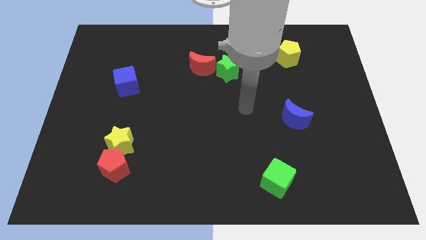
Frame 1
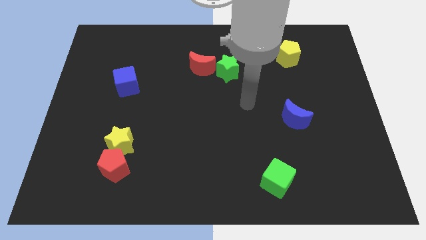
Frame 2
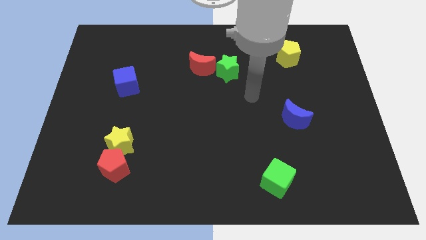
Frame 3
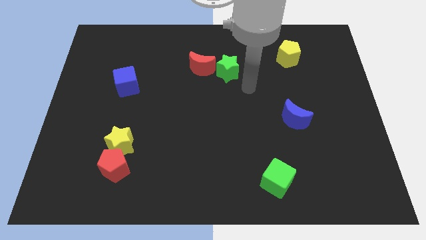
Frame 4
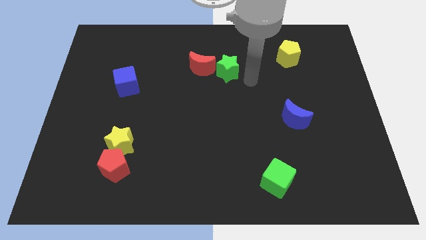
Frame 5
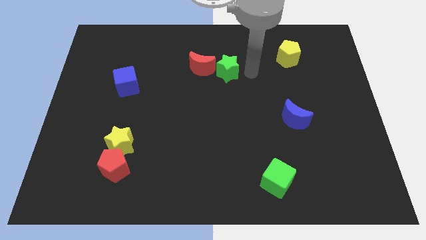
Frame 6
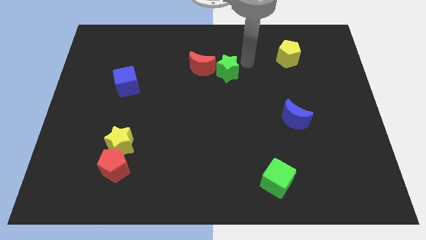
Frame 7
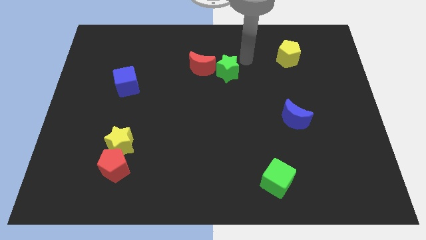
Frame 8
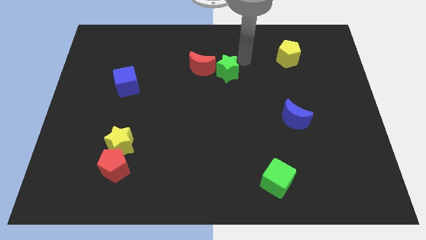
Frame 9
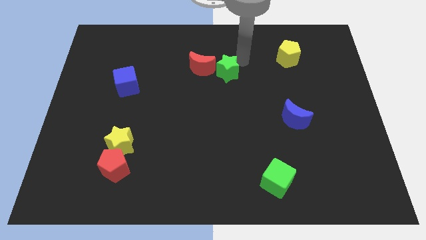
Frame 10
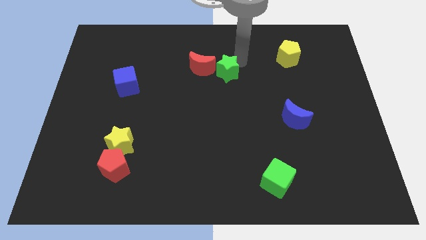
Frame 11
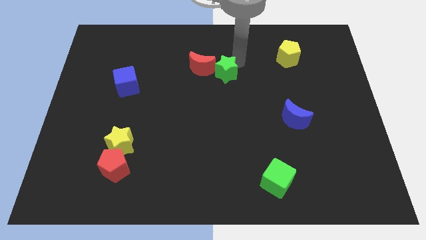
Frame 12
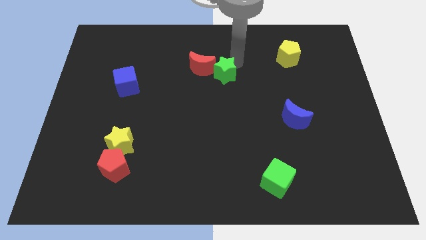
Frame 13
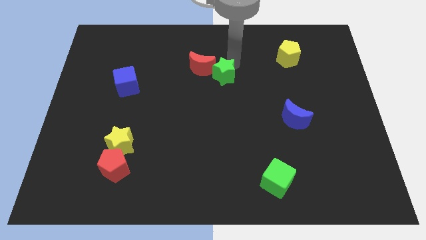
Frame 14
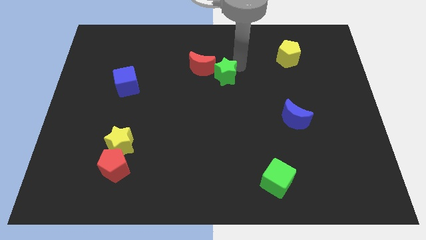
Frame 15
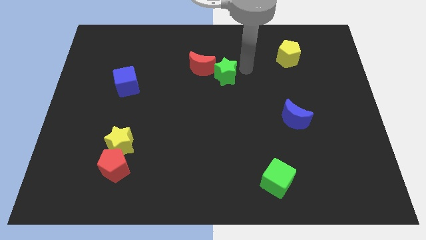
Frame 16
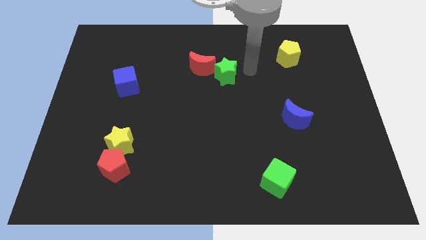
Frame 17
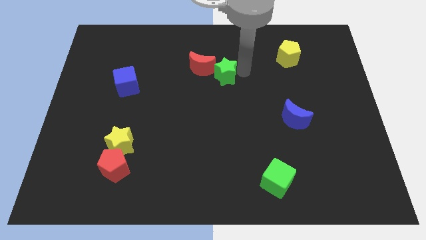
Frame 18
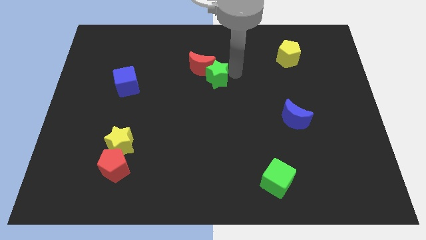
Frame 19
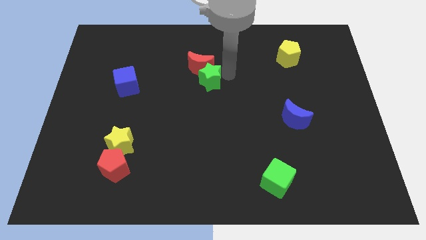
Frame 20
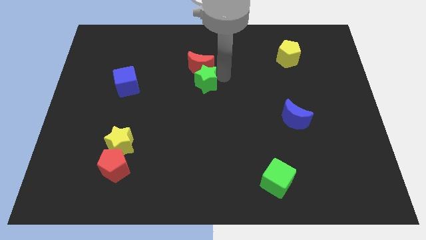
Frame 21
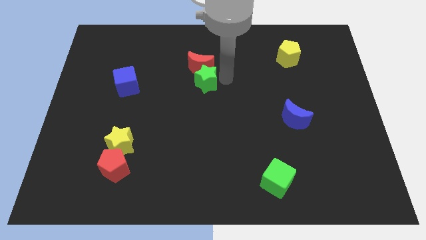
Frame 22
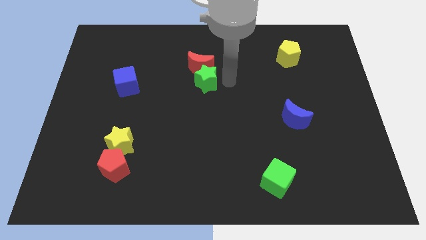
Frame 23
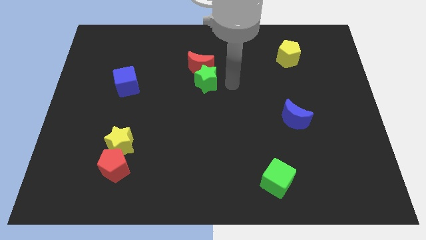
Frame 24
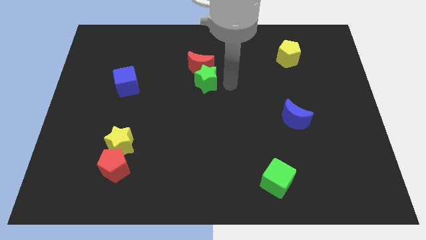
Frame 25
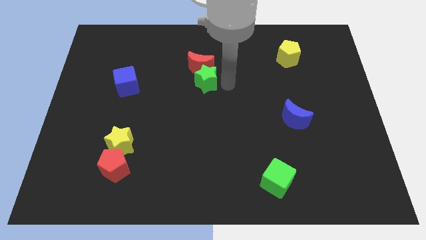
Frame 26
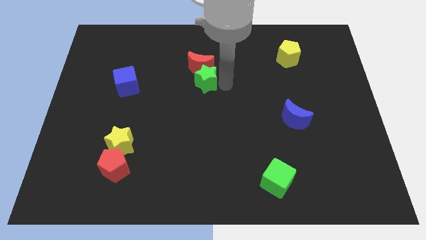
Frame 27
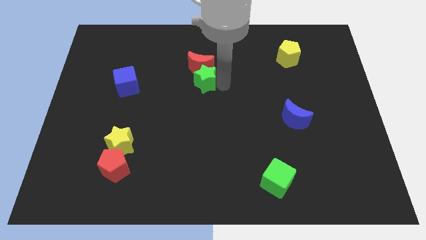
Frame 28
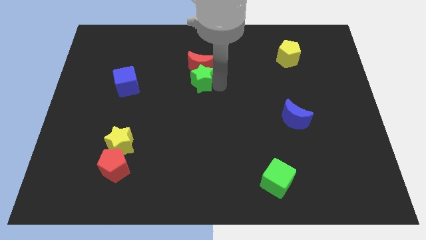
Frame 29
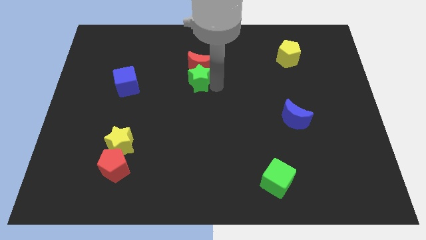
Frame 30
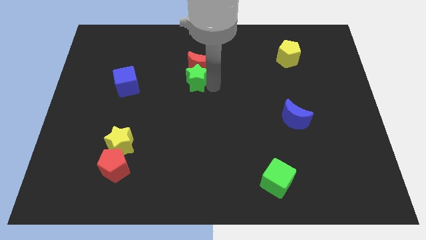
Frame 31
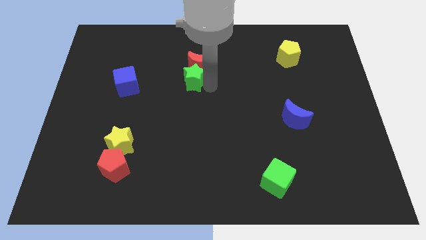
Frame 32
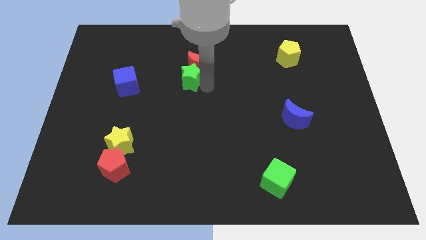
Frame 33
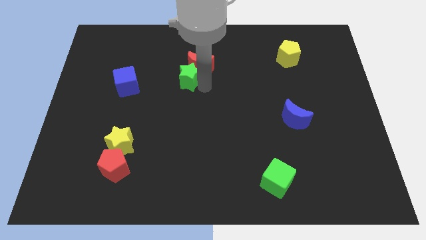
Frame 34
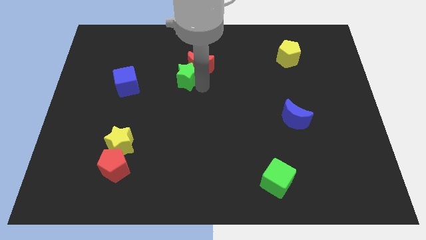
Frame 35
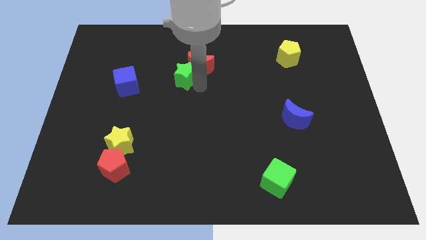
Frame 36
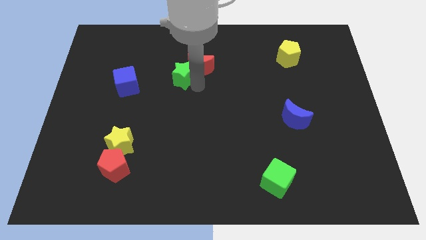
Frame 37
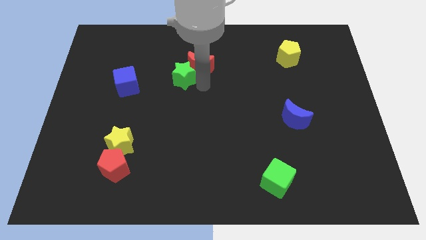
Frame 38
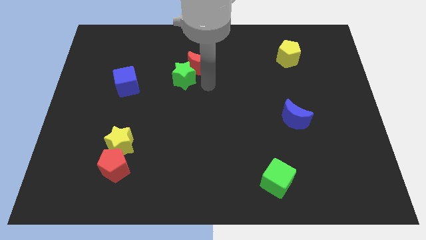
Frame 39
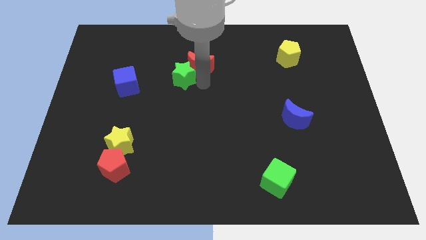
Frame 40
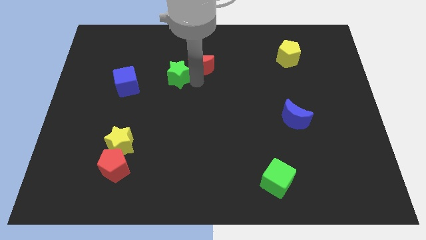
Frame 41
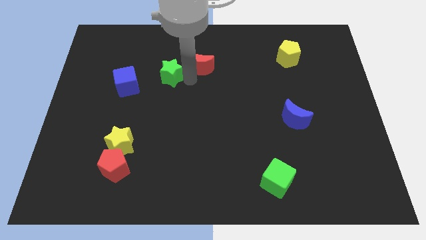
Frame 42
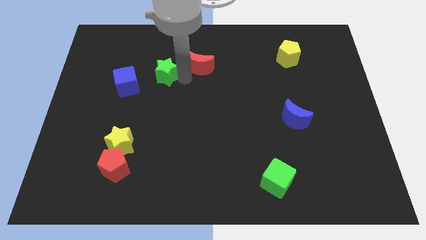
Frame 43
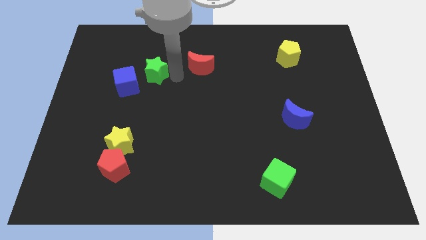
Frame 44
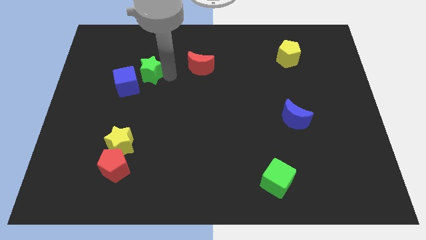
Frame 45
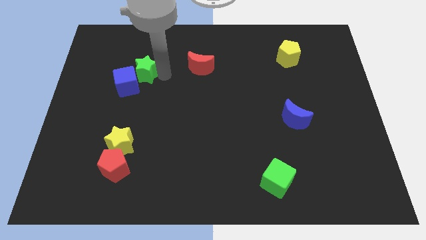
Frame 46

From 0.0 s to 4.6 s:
move the green star to the left

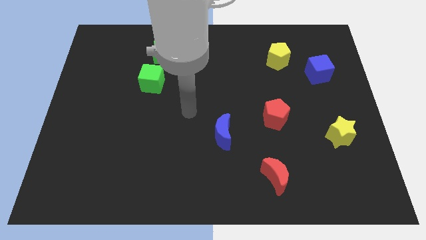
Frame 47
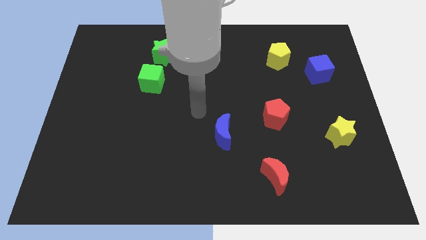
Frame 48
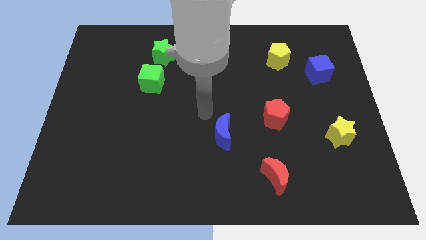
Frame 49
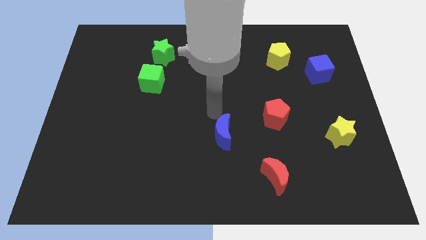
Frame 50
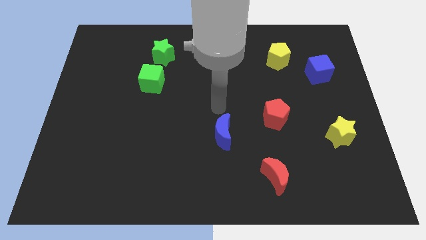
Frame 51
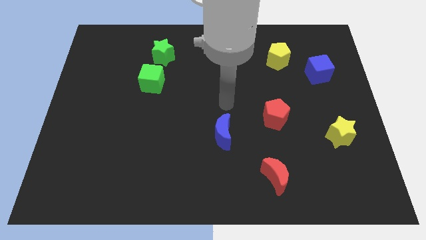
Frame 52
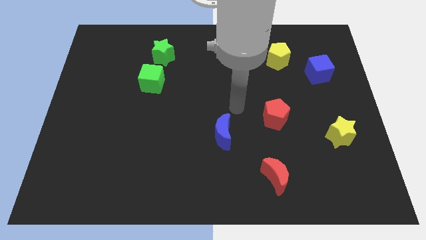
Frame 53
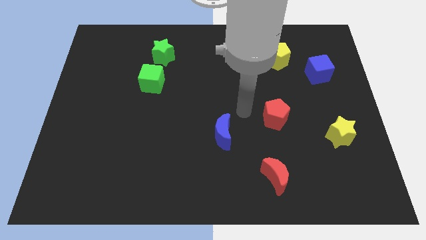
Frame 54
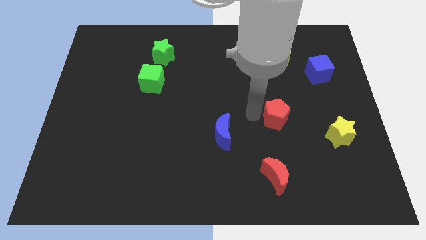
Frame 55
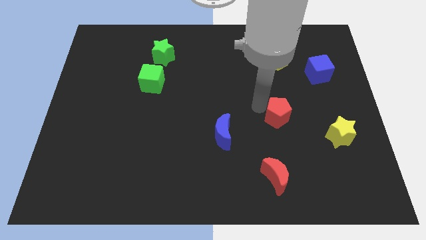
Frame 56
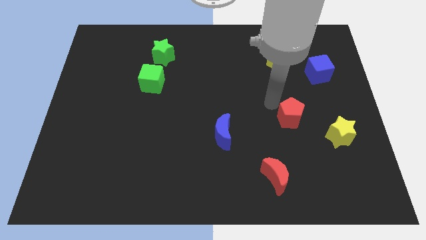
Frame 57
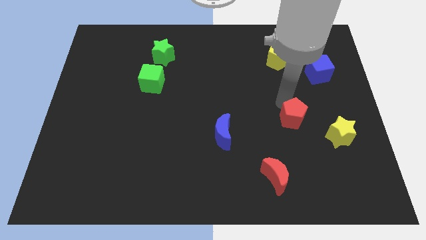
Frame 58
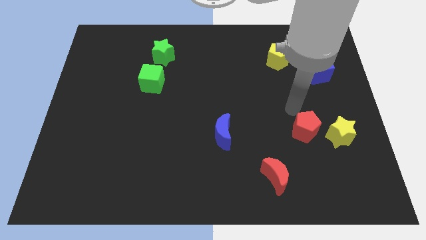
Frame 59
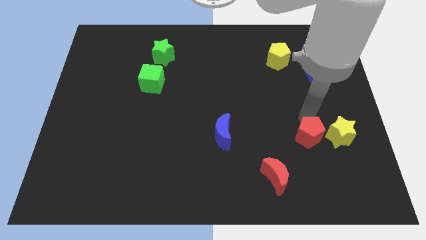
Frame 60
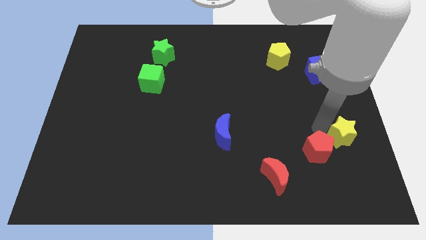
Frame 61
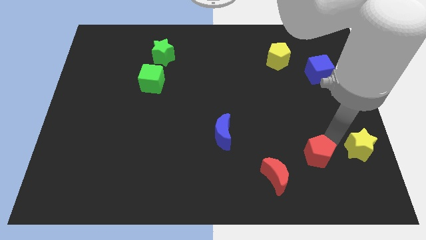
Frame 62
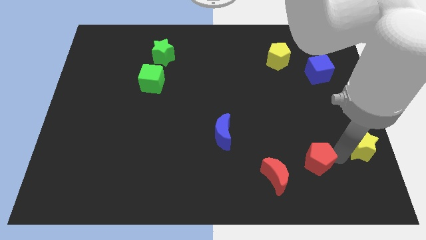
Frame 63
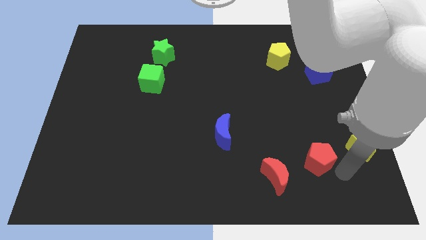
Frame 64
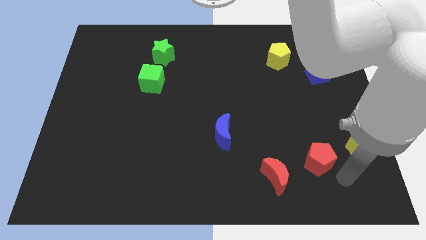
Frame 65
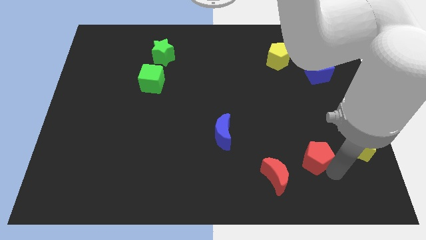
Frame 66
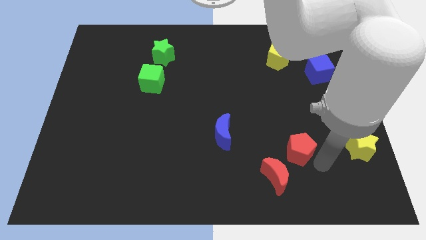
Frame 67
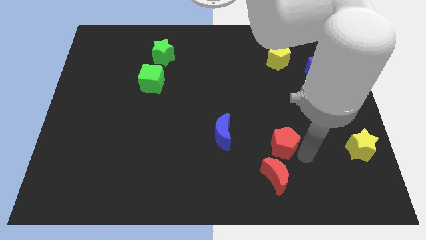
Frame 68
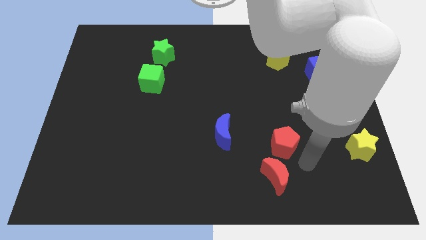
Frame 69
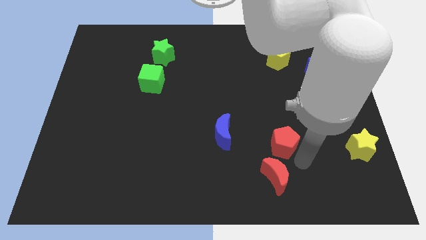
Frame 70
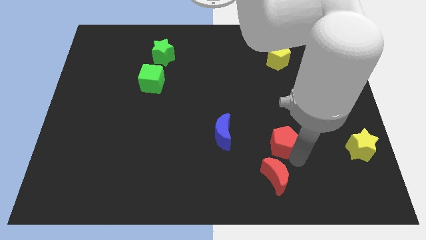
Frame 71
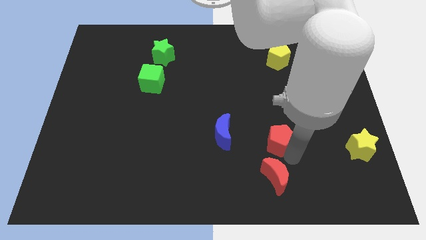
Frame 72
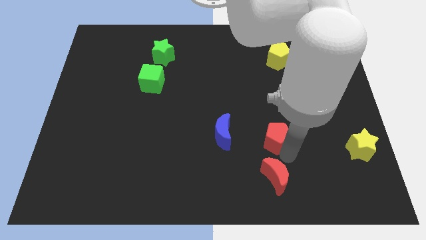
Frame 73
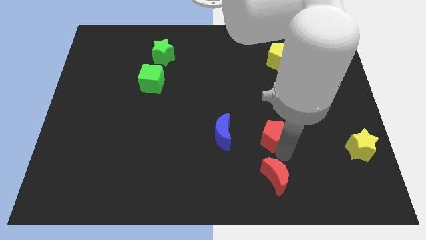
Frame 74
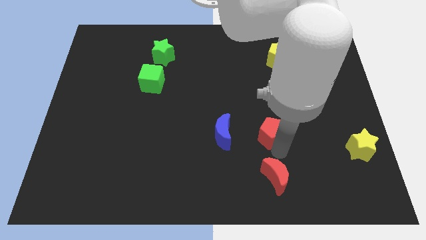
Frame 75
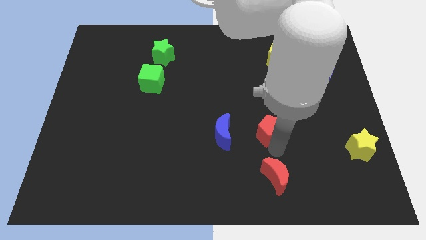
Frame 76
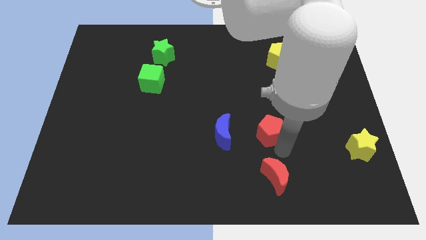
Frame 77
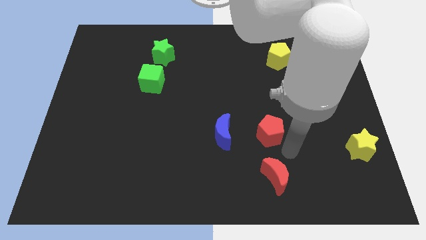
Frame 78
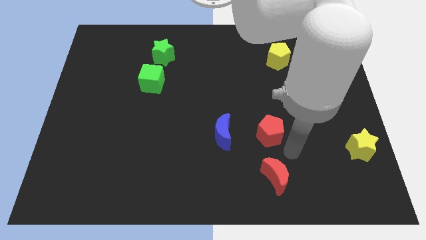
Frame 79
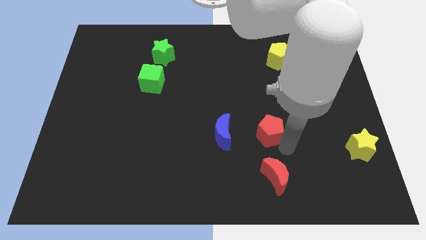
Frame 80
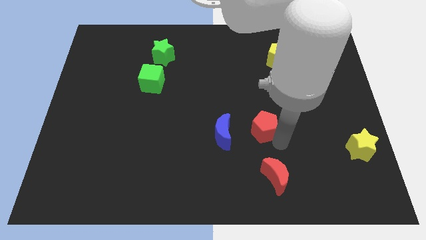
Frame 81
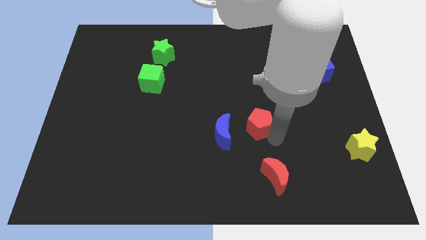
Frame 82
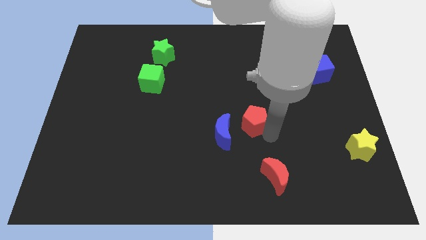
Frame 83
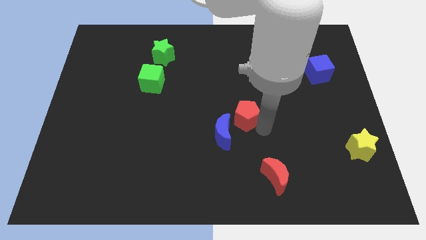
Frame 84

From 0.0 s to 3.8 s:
move the red pentagon a bit left

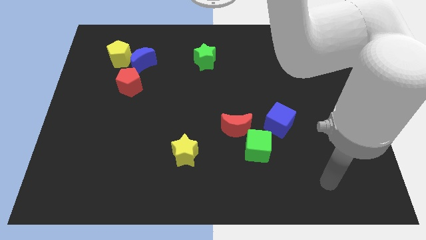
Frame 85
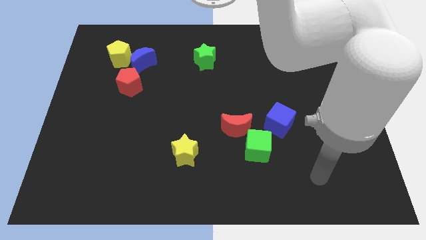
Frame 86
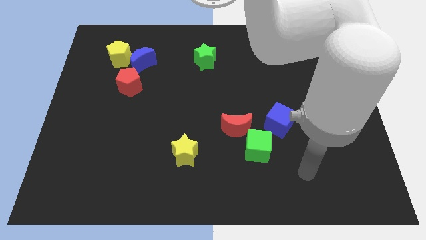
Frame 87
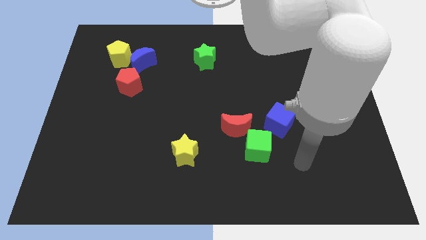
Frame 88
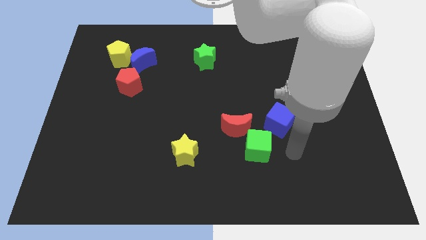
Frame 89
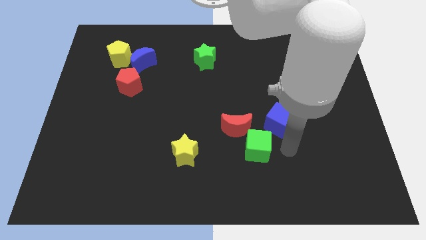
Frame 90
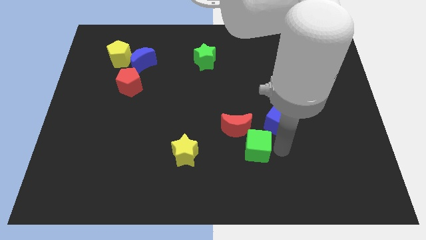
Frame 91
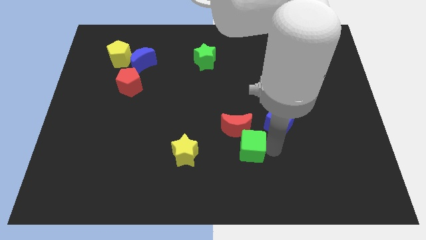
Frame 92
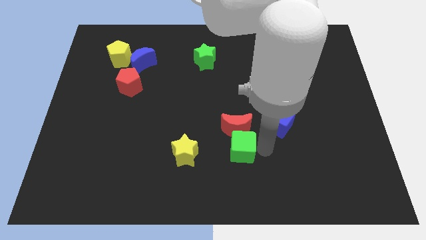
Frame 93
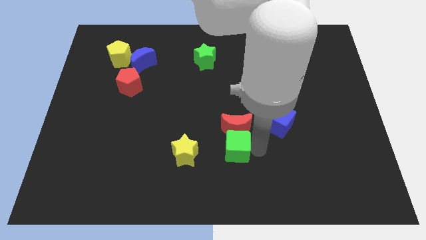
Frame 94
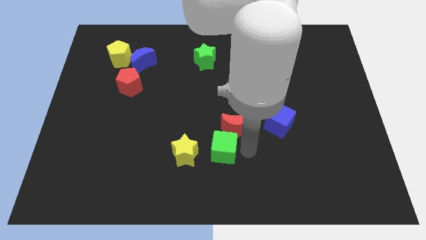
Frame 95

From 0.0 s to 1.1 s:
push the green cube left slightly
